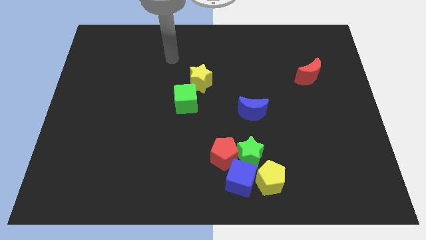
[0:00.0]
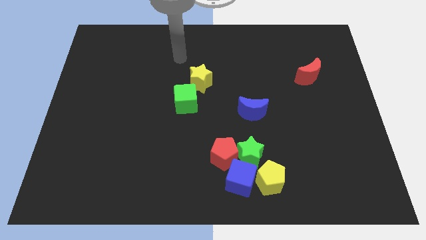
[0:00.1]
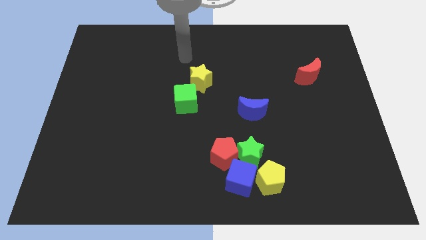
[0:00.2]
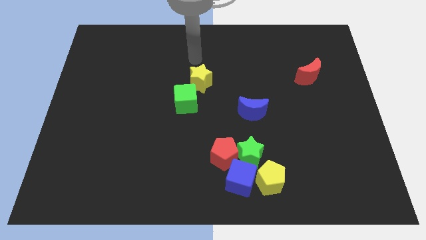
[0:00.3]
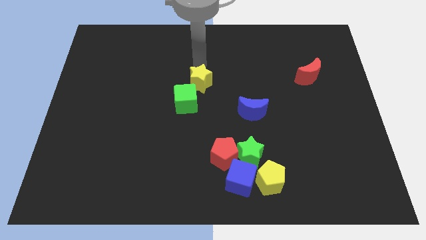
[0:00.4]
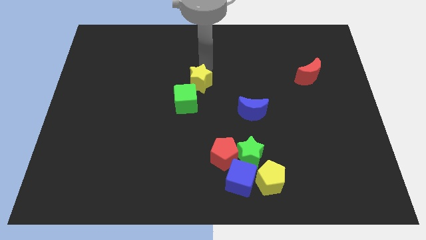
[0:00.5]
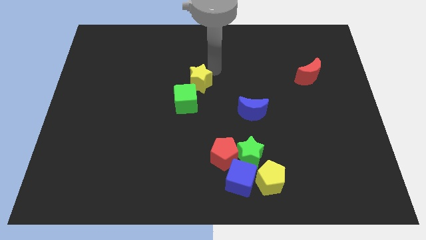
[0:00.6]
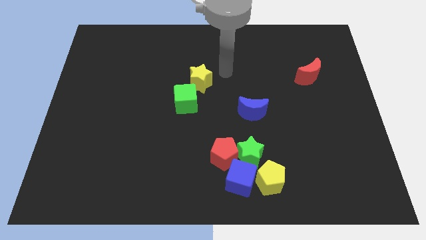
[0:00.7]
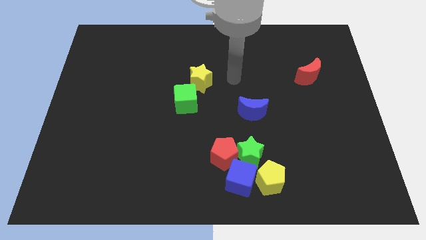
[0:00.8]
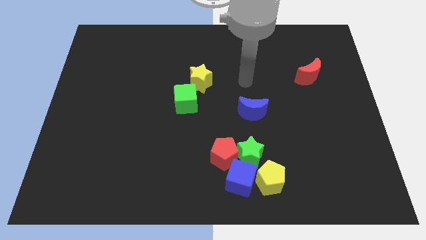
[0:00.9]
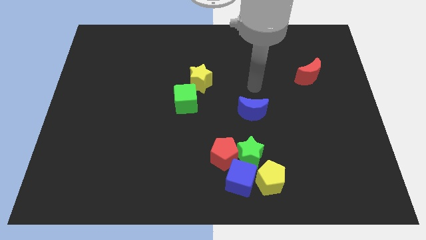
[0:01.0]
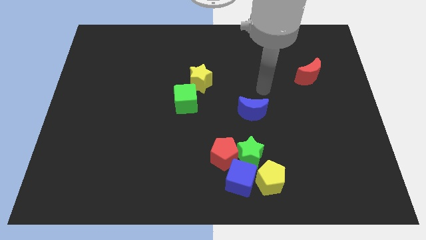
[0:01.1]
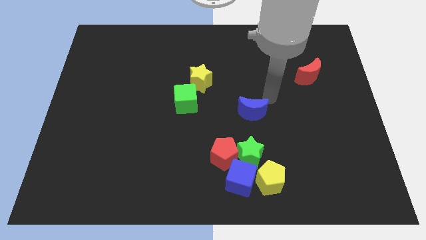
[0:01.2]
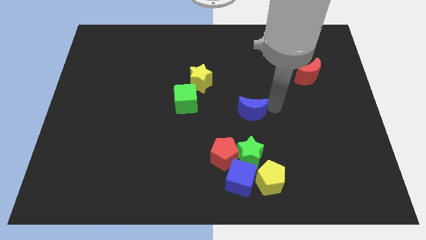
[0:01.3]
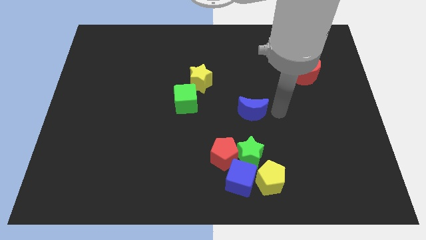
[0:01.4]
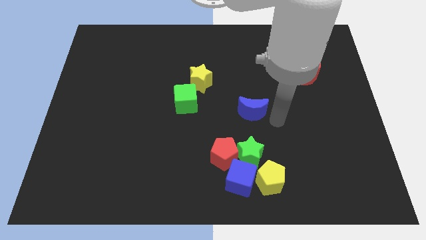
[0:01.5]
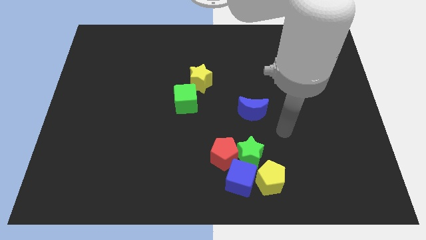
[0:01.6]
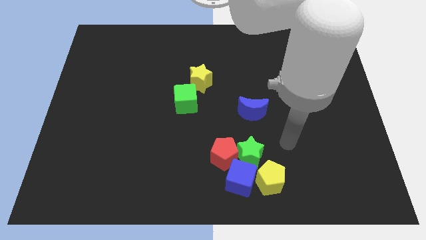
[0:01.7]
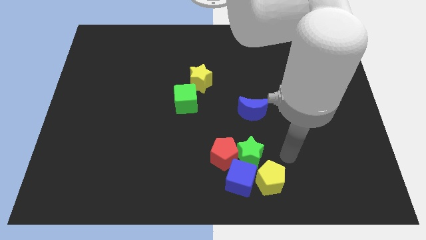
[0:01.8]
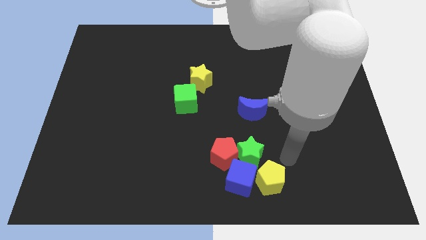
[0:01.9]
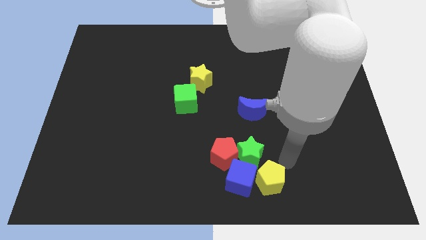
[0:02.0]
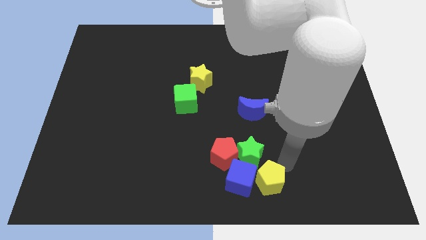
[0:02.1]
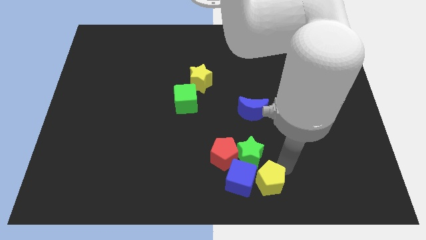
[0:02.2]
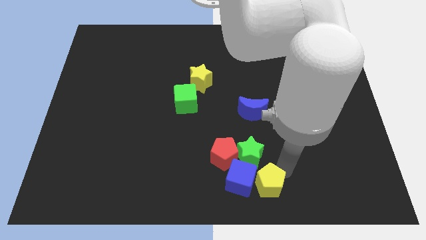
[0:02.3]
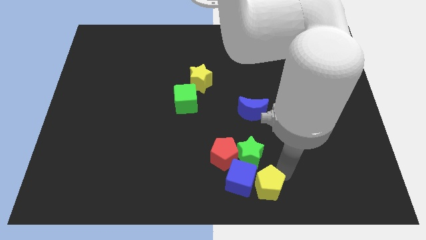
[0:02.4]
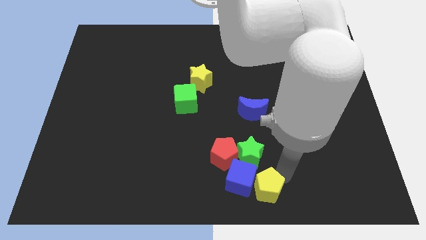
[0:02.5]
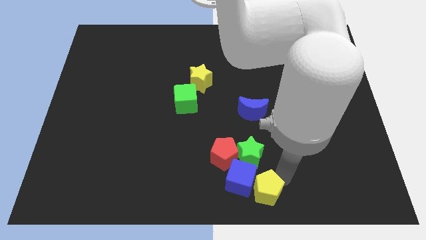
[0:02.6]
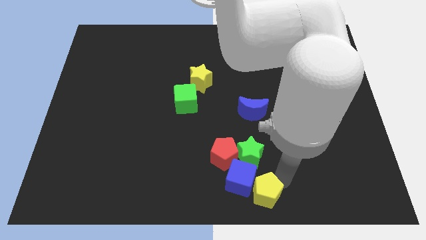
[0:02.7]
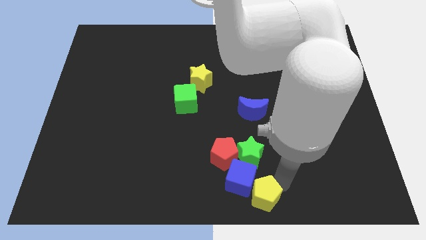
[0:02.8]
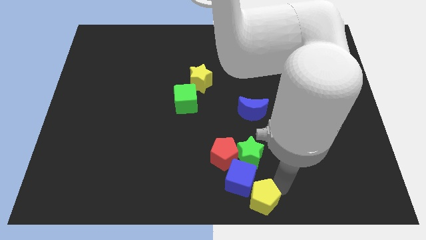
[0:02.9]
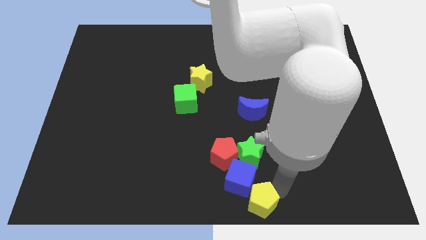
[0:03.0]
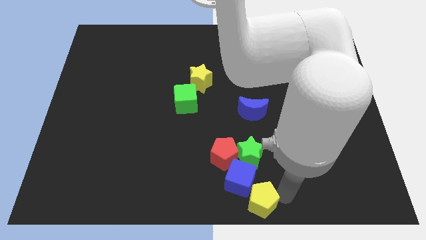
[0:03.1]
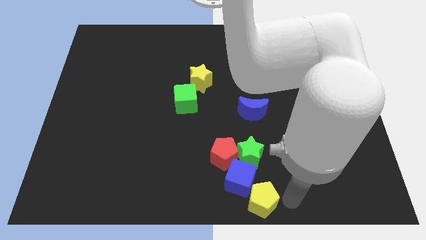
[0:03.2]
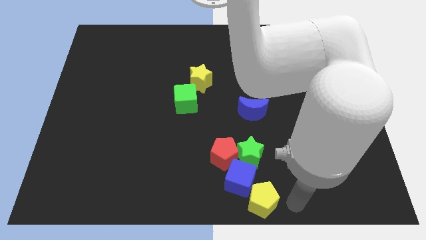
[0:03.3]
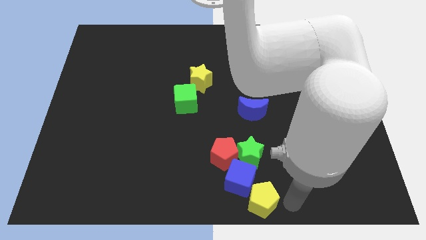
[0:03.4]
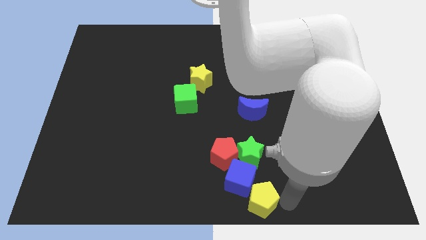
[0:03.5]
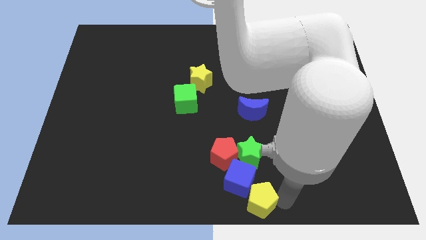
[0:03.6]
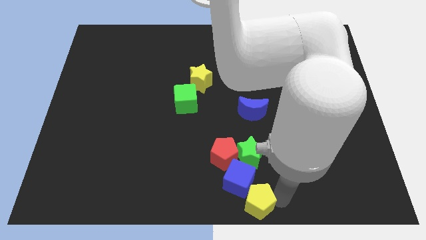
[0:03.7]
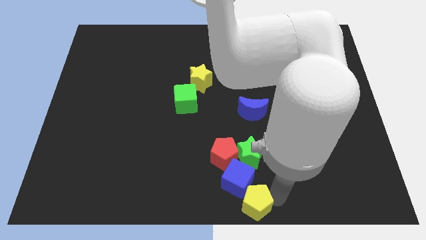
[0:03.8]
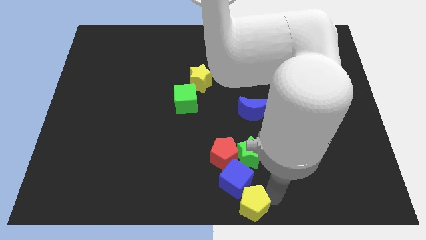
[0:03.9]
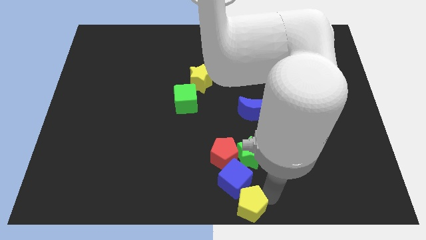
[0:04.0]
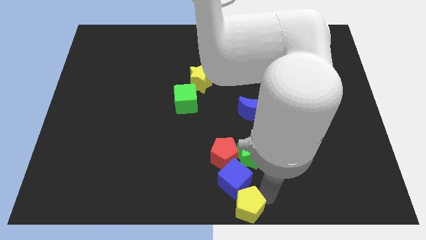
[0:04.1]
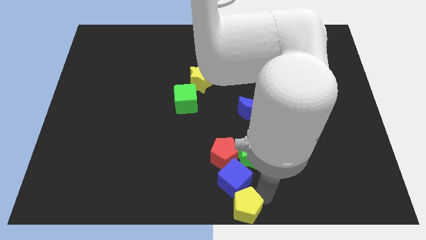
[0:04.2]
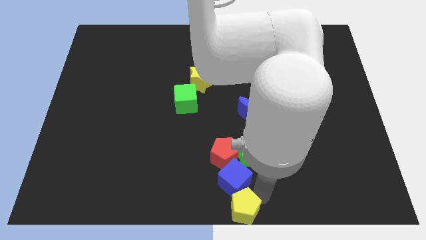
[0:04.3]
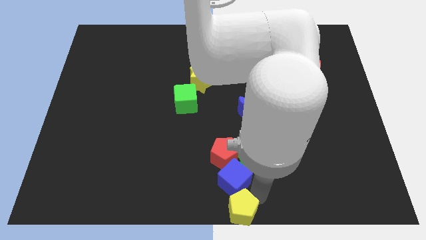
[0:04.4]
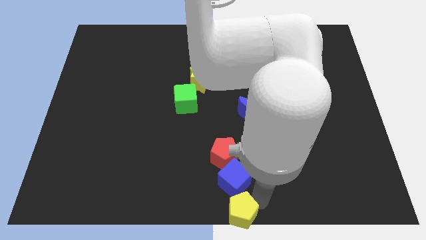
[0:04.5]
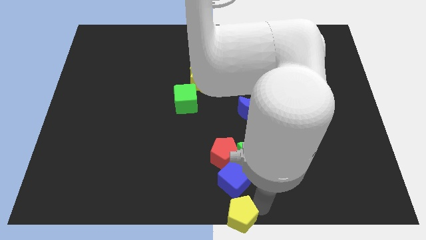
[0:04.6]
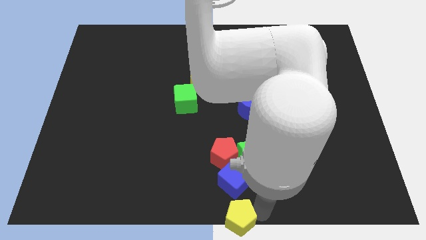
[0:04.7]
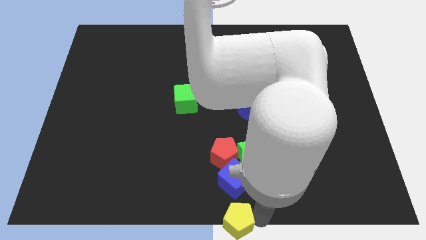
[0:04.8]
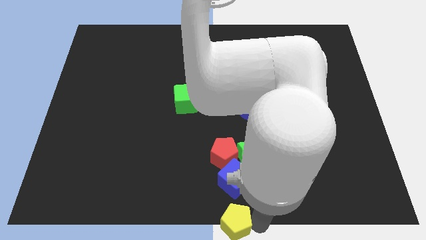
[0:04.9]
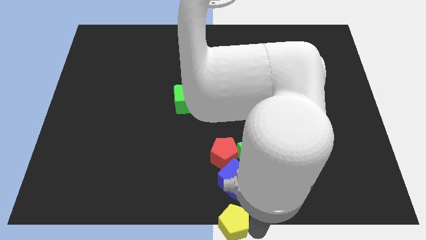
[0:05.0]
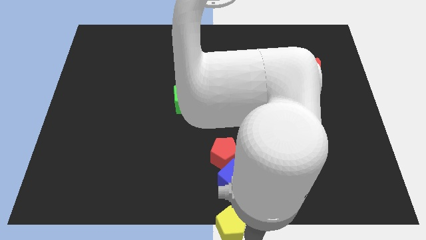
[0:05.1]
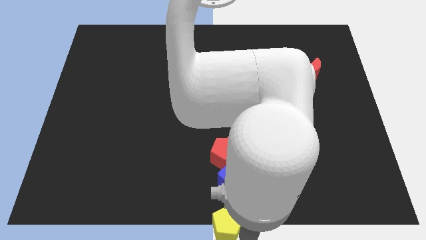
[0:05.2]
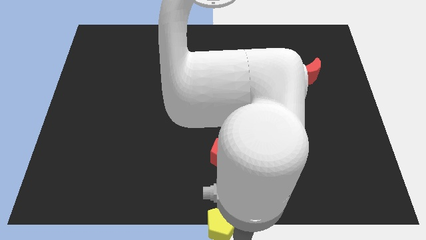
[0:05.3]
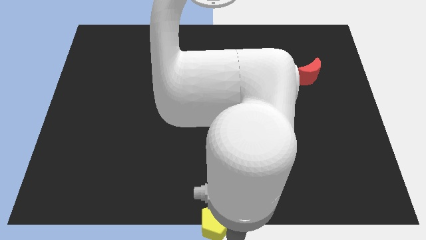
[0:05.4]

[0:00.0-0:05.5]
slide the yellow pentagon a little to the left

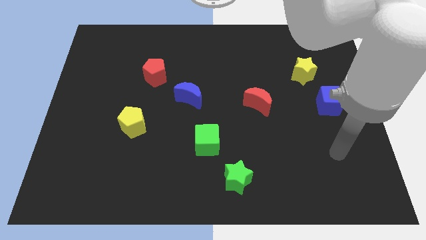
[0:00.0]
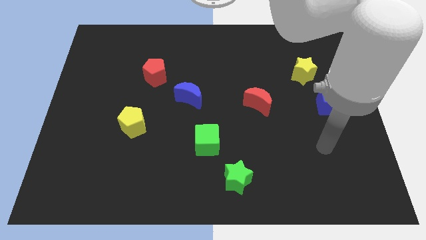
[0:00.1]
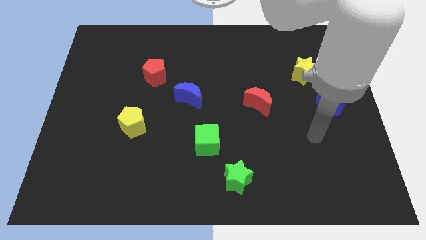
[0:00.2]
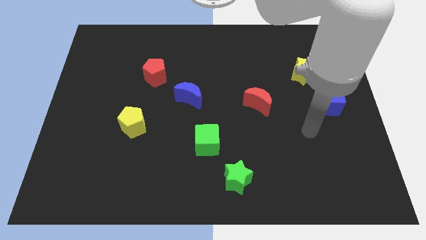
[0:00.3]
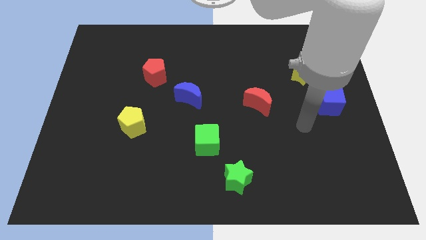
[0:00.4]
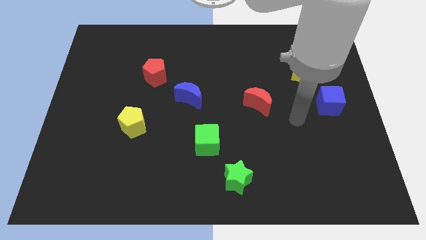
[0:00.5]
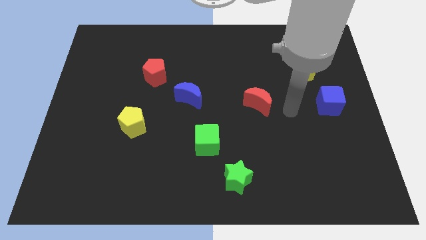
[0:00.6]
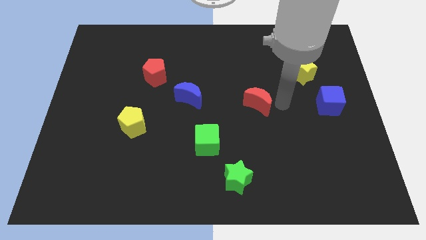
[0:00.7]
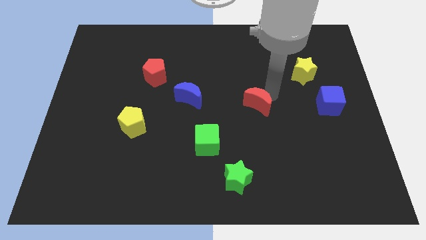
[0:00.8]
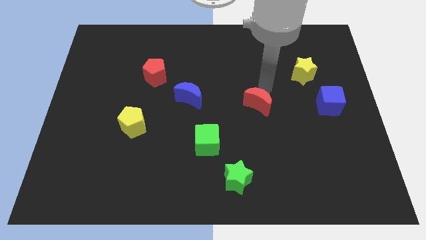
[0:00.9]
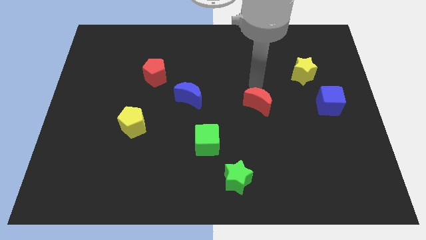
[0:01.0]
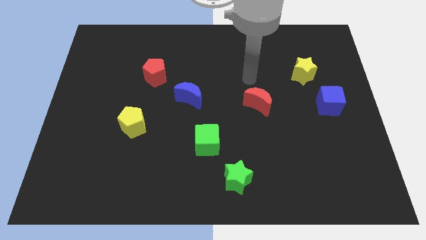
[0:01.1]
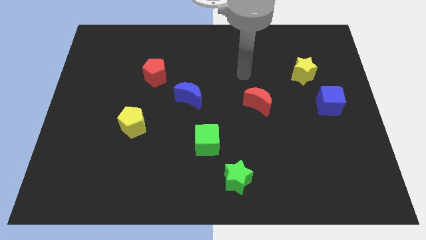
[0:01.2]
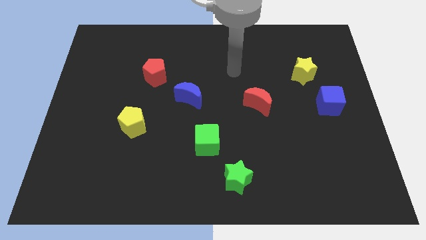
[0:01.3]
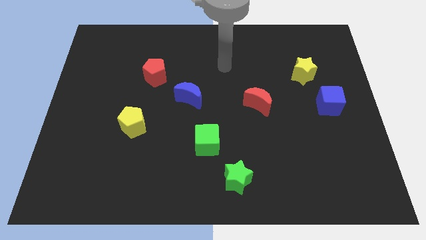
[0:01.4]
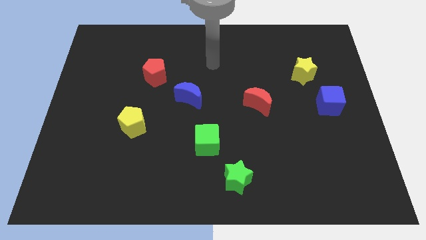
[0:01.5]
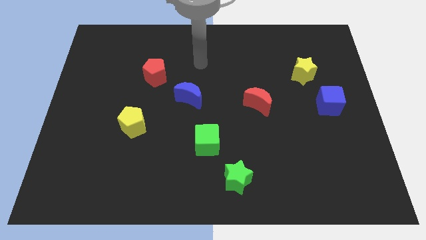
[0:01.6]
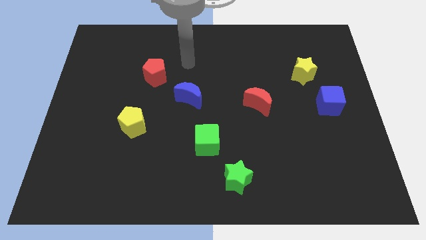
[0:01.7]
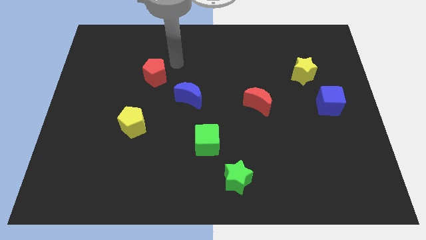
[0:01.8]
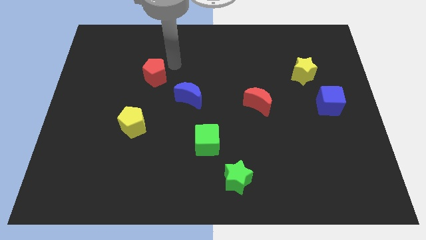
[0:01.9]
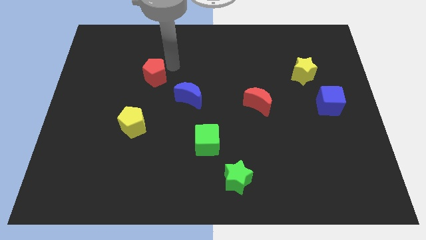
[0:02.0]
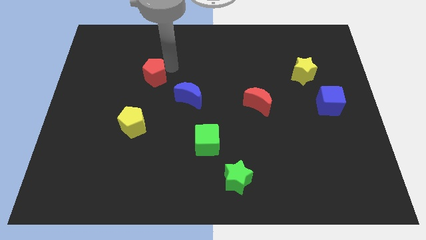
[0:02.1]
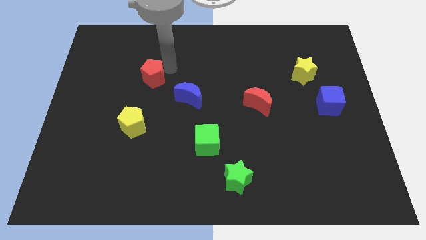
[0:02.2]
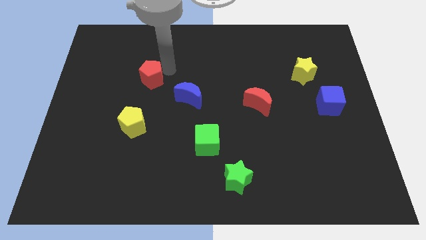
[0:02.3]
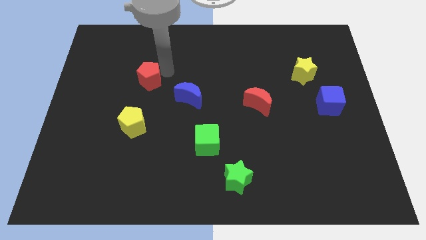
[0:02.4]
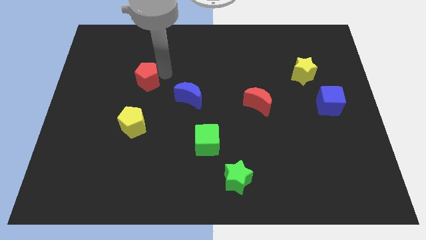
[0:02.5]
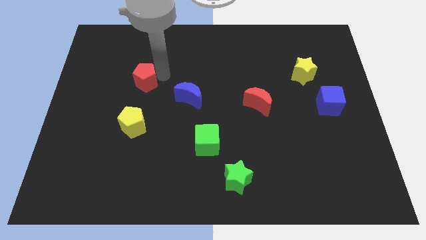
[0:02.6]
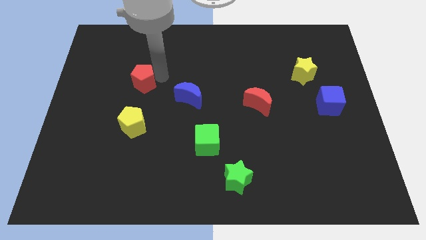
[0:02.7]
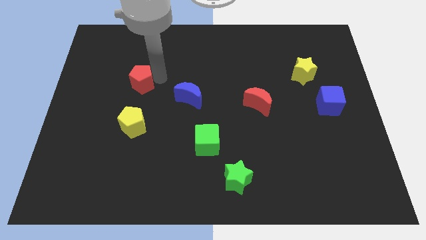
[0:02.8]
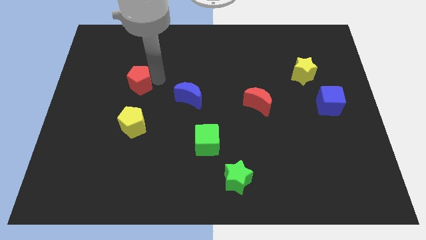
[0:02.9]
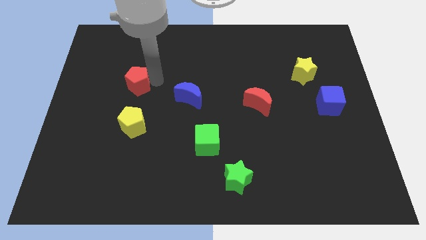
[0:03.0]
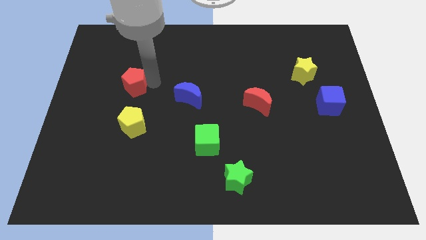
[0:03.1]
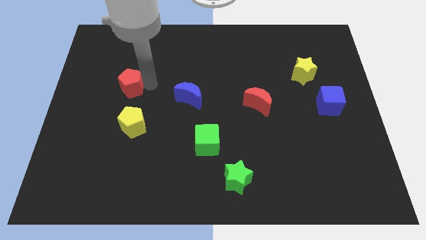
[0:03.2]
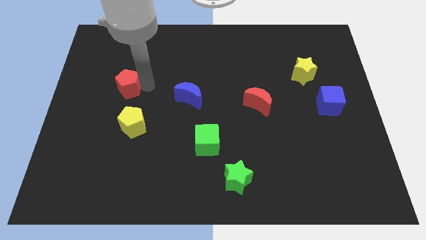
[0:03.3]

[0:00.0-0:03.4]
slightly slide the red pentagon diagonally down and left
